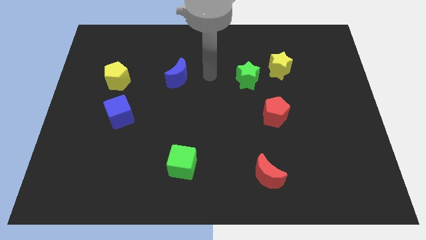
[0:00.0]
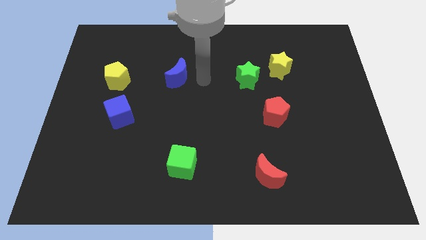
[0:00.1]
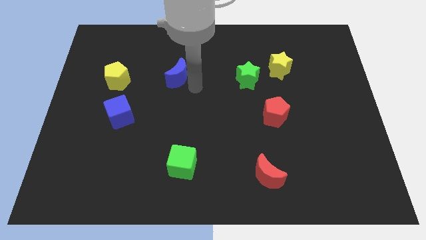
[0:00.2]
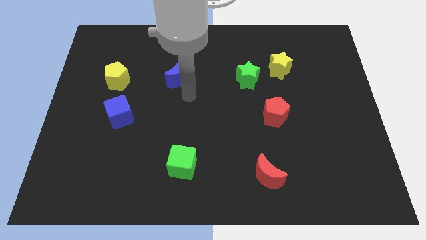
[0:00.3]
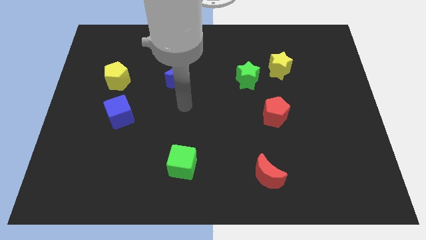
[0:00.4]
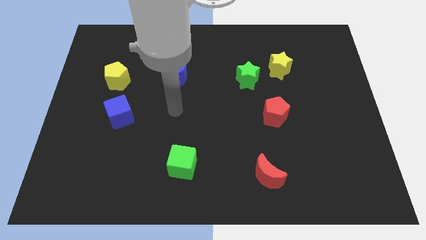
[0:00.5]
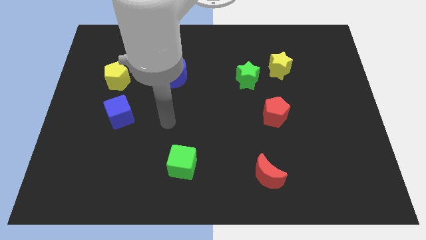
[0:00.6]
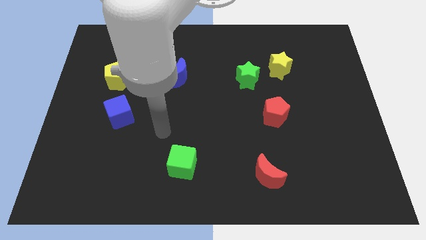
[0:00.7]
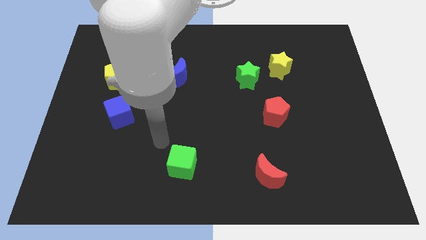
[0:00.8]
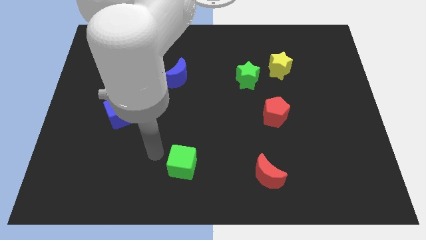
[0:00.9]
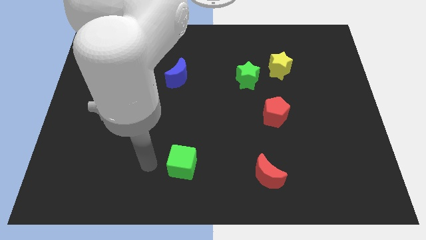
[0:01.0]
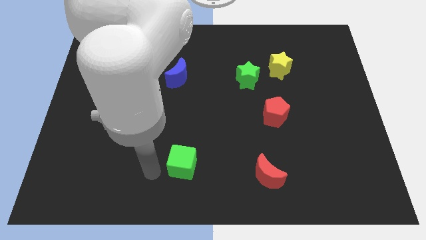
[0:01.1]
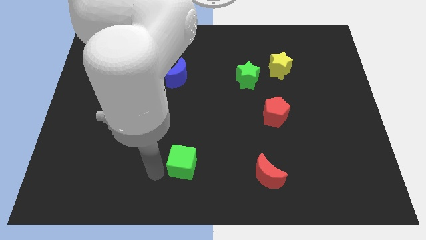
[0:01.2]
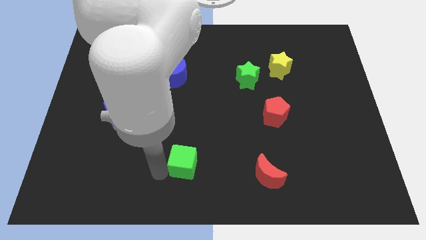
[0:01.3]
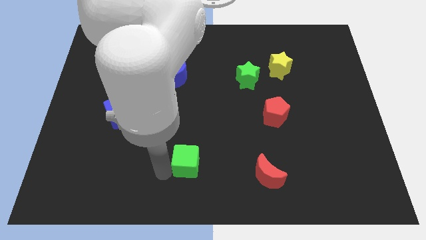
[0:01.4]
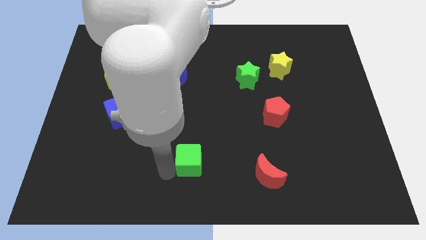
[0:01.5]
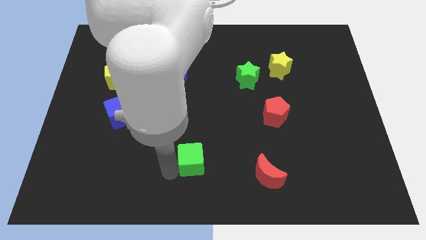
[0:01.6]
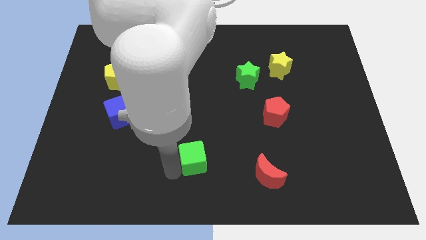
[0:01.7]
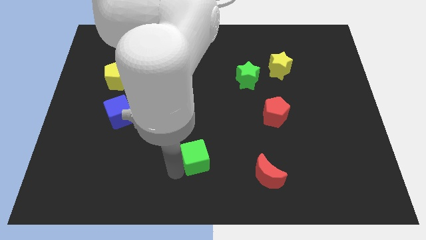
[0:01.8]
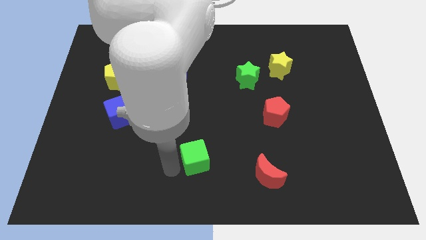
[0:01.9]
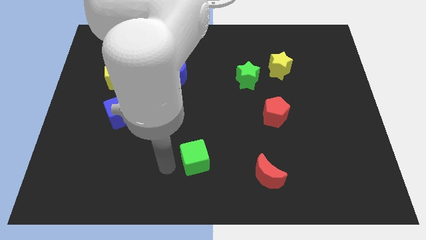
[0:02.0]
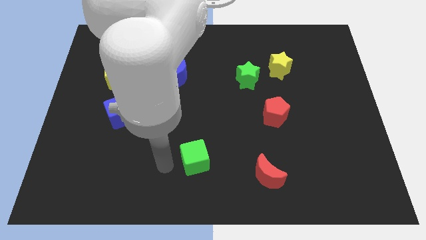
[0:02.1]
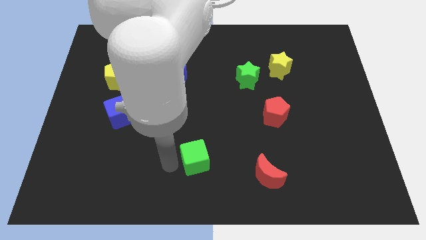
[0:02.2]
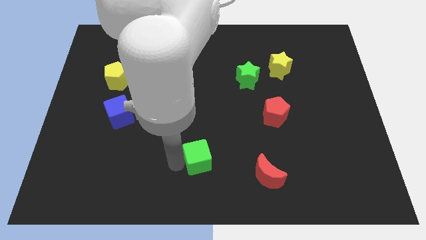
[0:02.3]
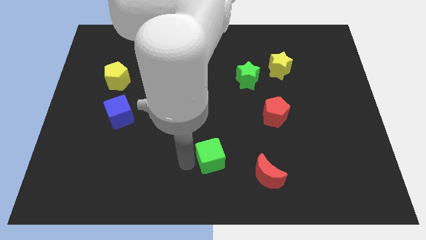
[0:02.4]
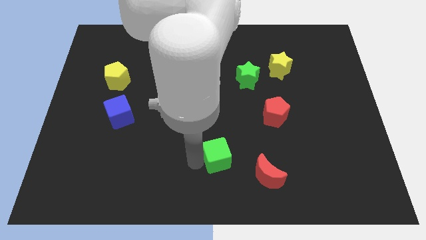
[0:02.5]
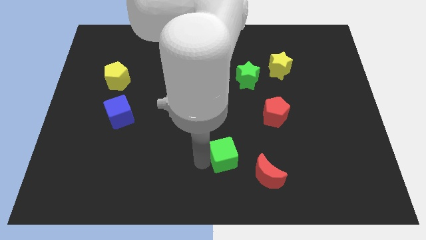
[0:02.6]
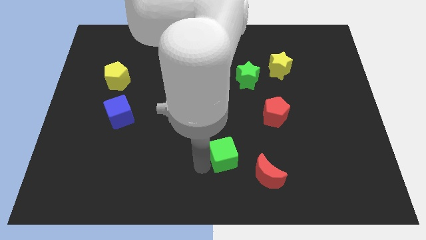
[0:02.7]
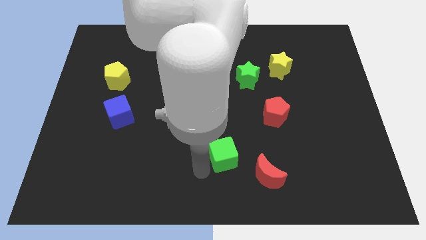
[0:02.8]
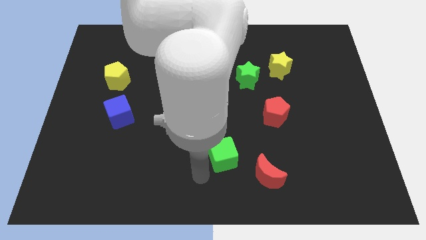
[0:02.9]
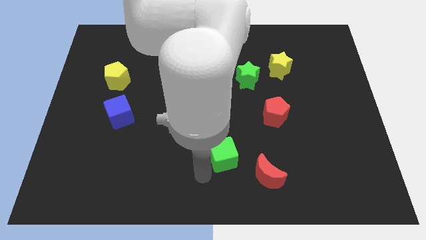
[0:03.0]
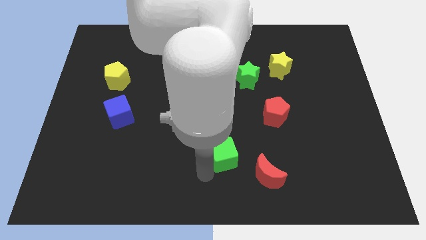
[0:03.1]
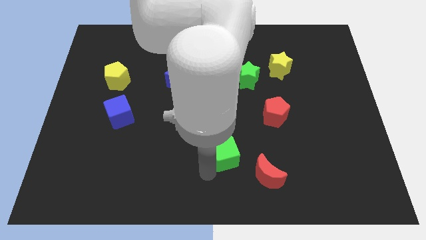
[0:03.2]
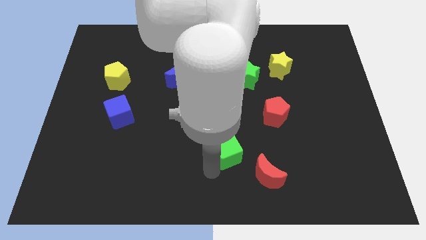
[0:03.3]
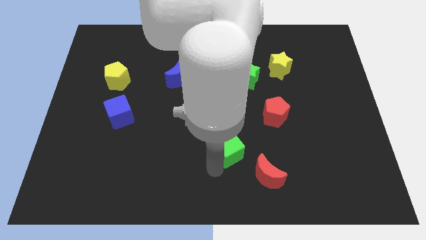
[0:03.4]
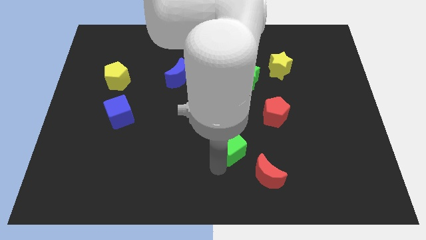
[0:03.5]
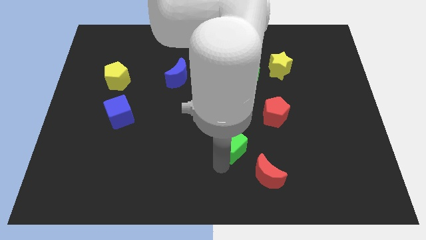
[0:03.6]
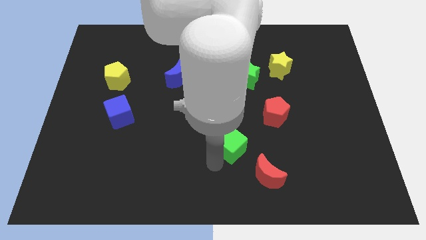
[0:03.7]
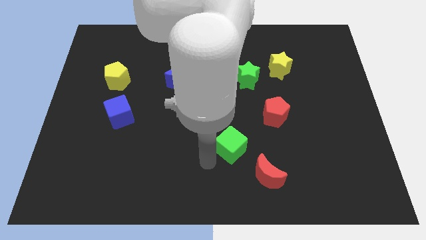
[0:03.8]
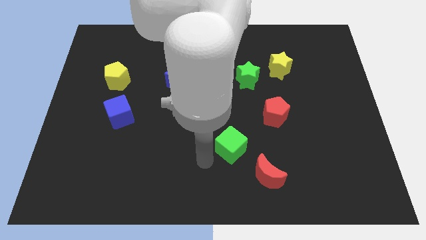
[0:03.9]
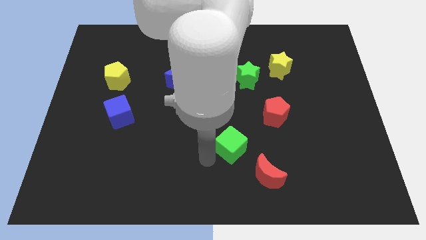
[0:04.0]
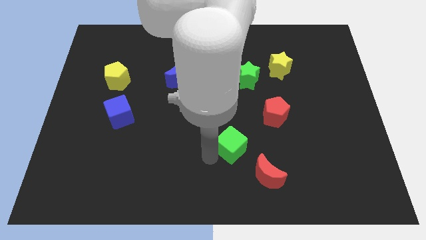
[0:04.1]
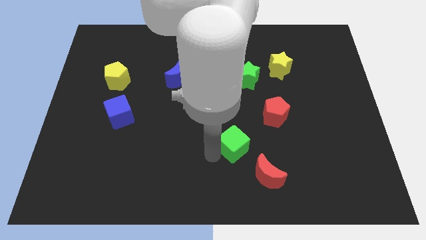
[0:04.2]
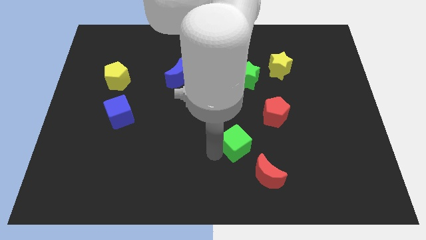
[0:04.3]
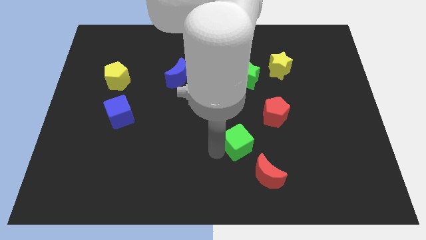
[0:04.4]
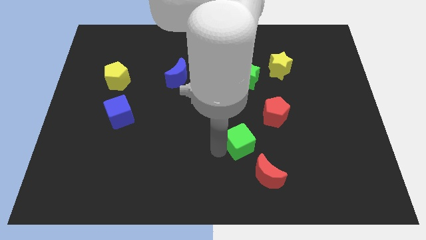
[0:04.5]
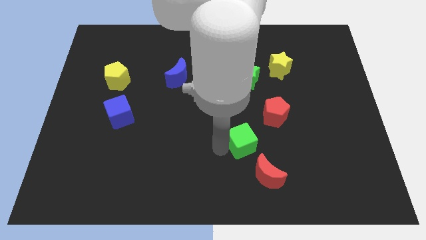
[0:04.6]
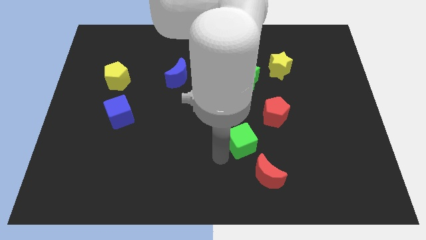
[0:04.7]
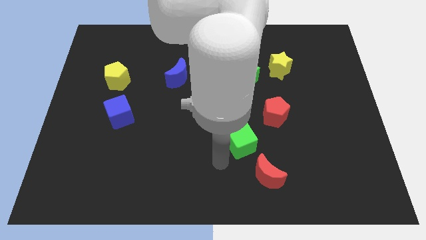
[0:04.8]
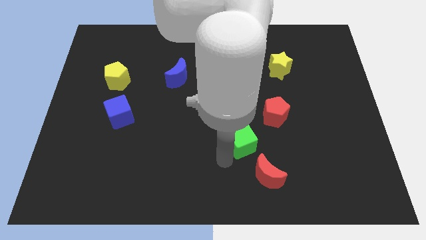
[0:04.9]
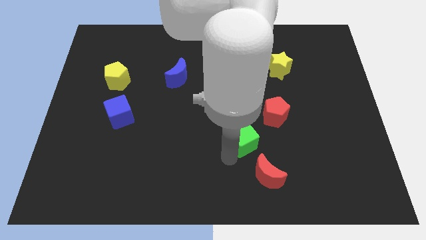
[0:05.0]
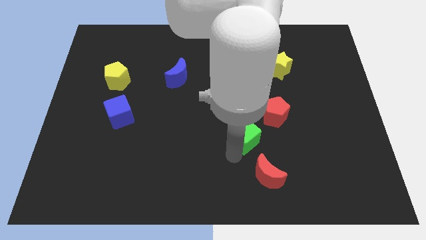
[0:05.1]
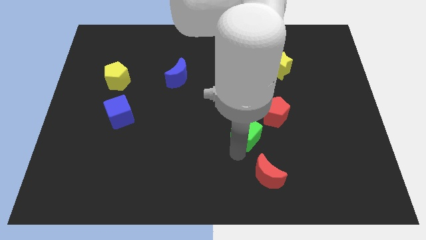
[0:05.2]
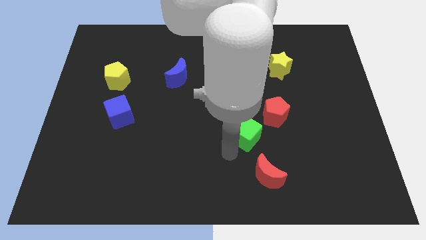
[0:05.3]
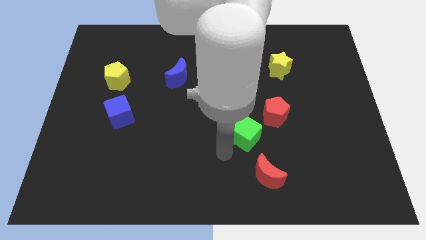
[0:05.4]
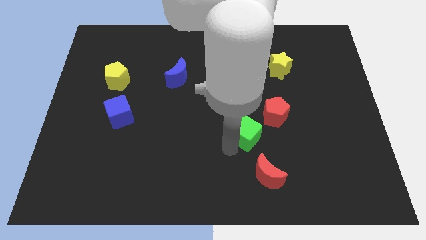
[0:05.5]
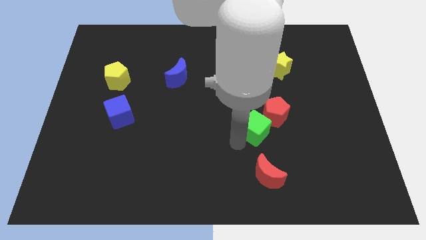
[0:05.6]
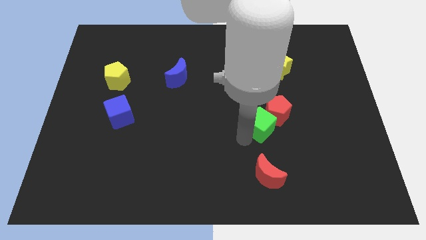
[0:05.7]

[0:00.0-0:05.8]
push the green cube to the red pentagon

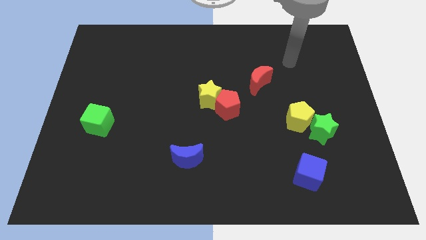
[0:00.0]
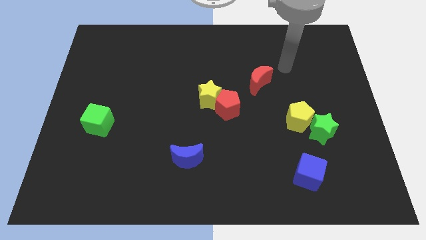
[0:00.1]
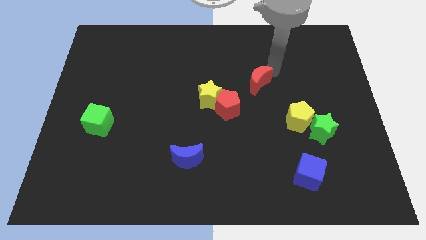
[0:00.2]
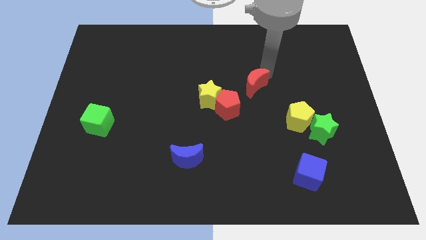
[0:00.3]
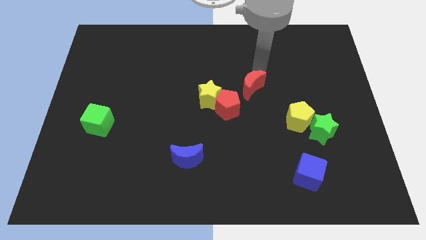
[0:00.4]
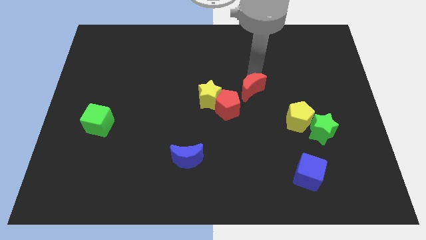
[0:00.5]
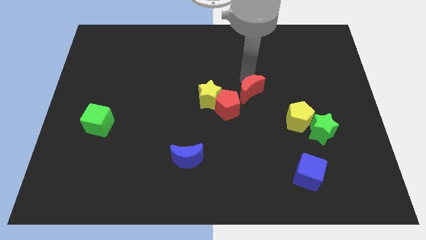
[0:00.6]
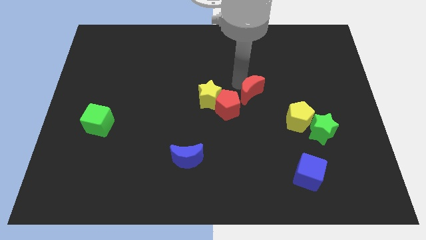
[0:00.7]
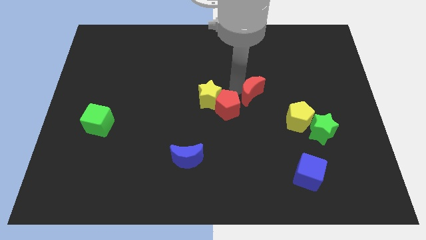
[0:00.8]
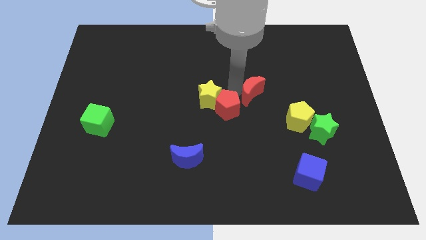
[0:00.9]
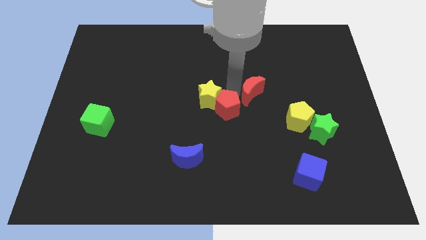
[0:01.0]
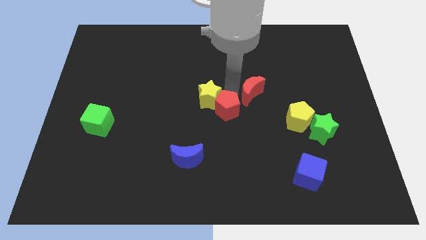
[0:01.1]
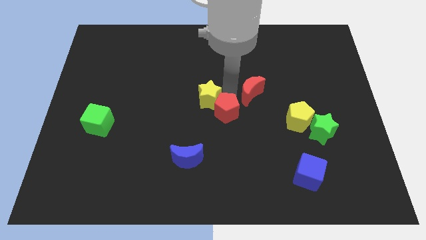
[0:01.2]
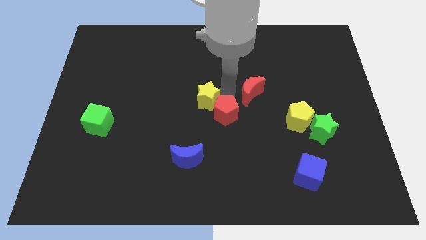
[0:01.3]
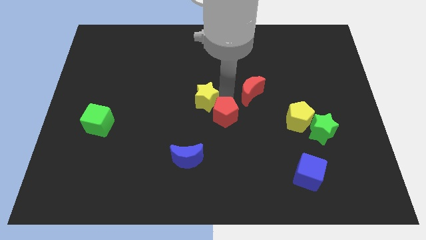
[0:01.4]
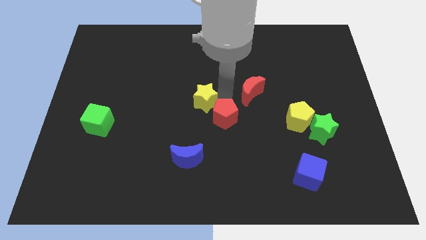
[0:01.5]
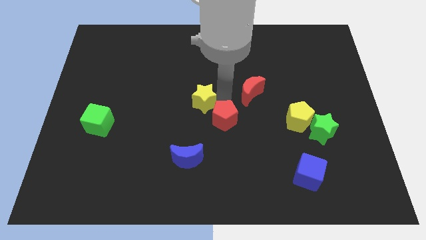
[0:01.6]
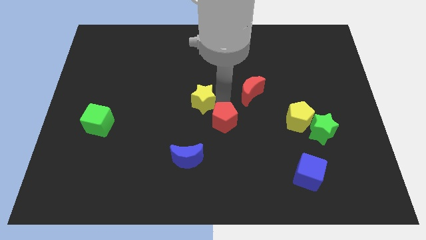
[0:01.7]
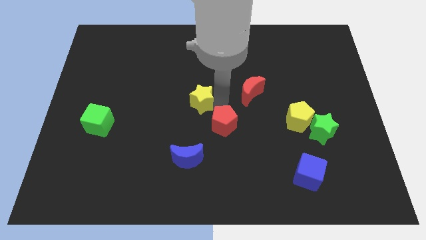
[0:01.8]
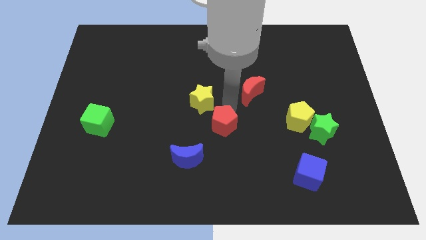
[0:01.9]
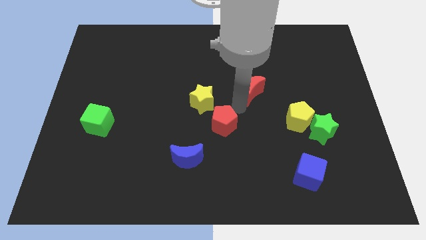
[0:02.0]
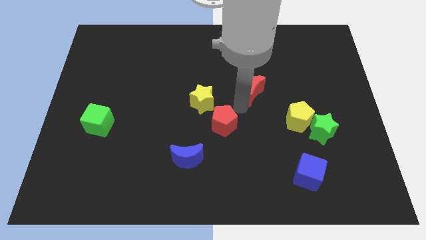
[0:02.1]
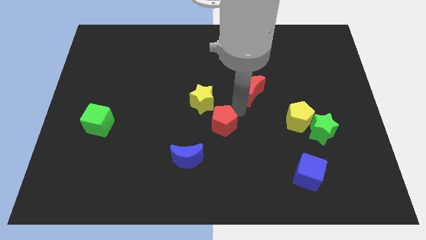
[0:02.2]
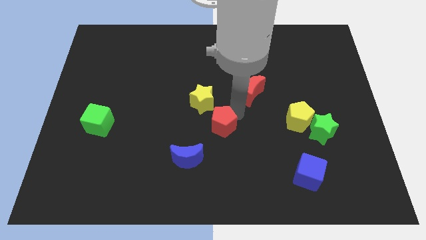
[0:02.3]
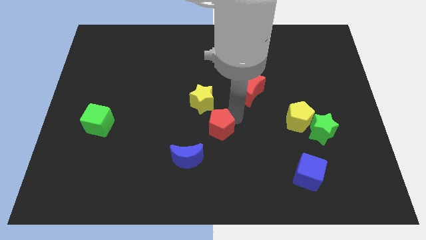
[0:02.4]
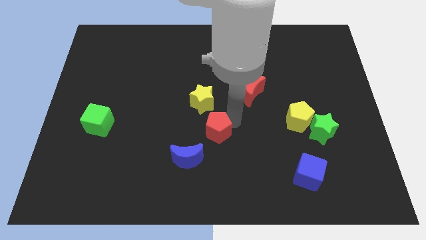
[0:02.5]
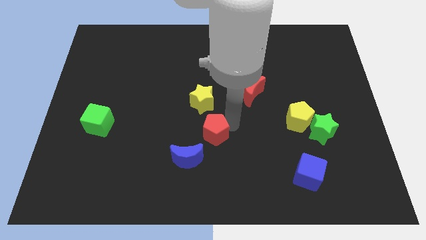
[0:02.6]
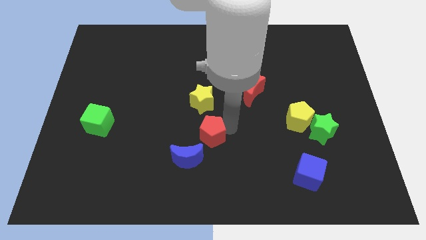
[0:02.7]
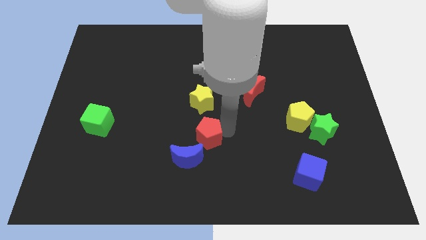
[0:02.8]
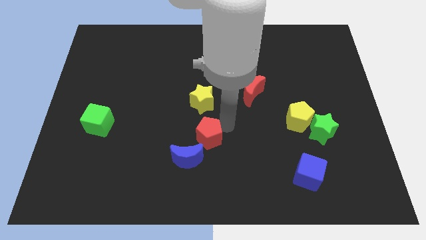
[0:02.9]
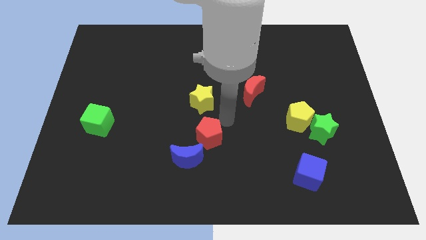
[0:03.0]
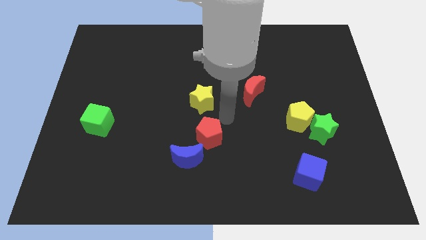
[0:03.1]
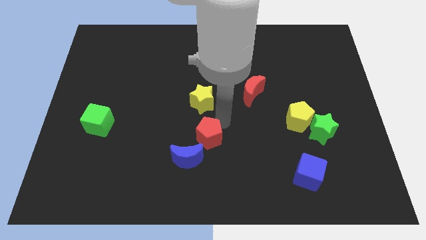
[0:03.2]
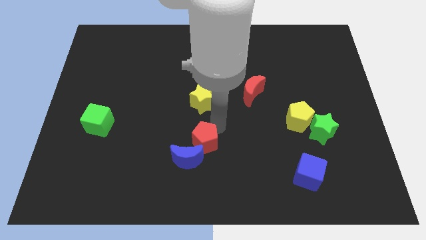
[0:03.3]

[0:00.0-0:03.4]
move the red pentagon towards the blue moon
